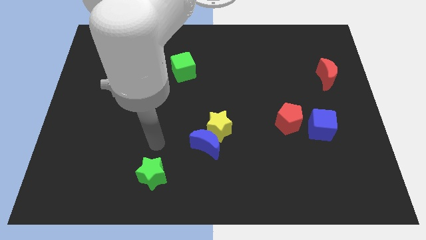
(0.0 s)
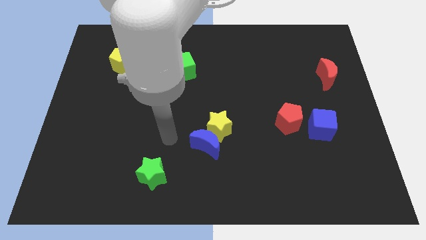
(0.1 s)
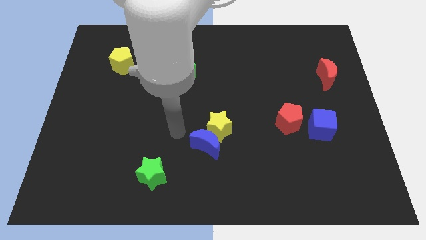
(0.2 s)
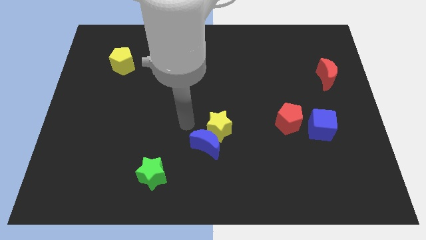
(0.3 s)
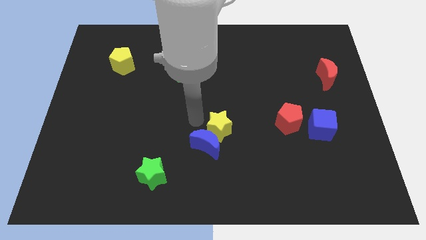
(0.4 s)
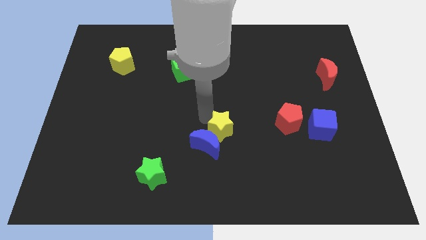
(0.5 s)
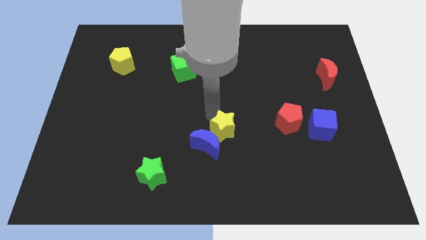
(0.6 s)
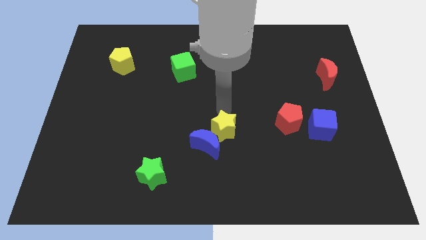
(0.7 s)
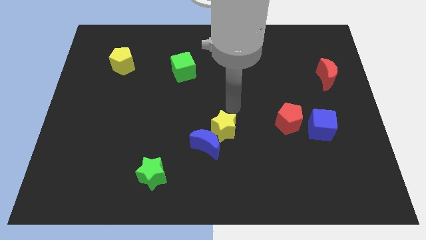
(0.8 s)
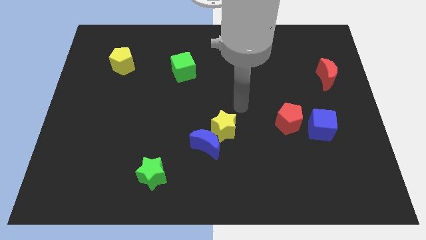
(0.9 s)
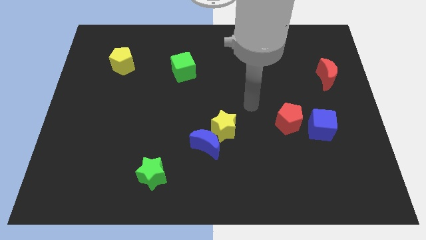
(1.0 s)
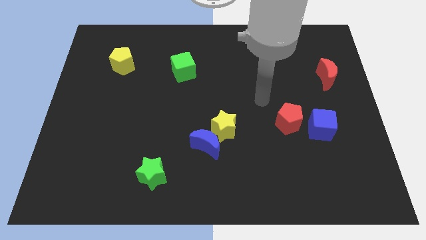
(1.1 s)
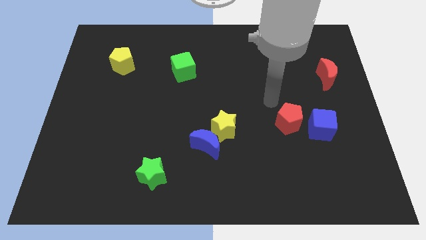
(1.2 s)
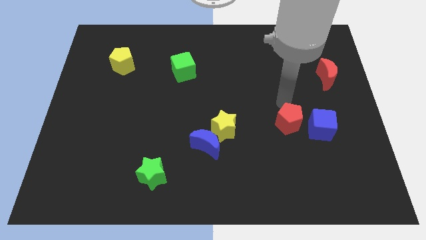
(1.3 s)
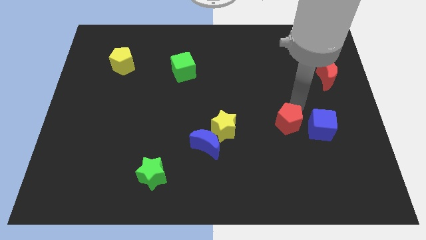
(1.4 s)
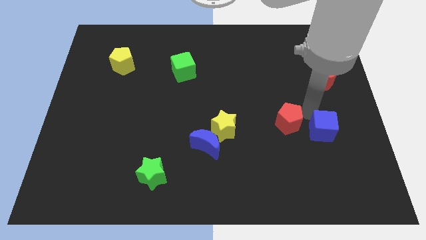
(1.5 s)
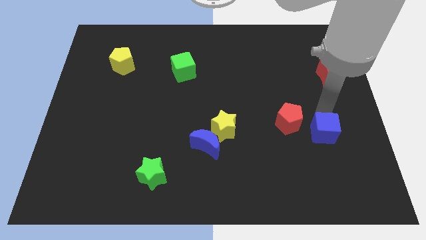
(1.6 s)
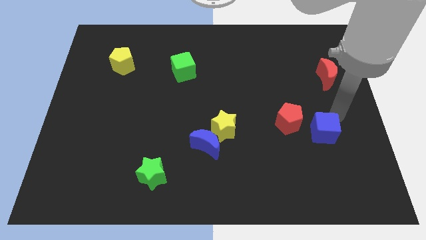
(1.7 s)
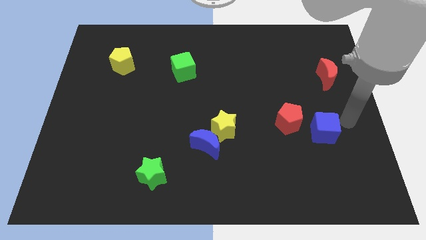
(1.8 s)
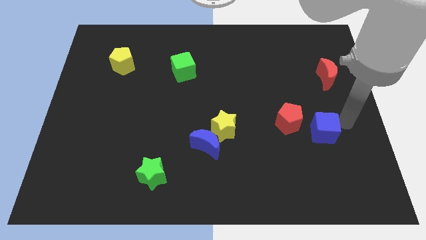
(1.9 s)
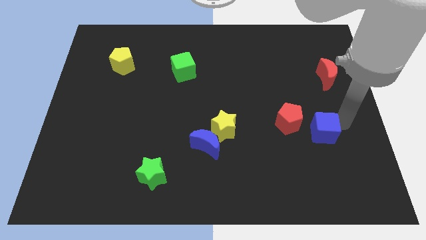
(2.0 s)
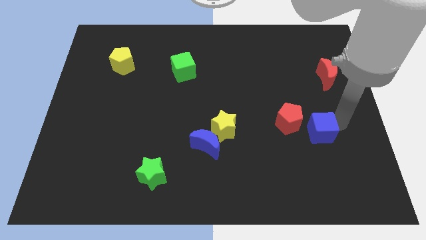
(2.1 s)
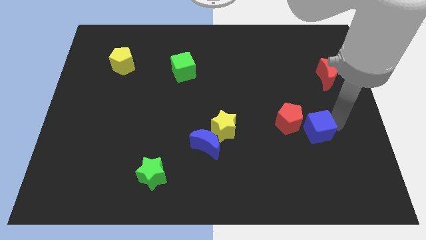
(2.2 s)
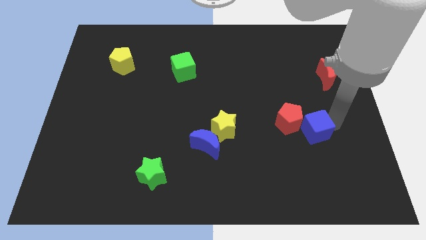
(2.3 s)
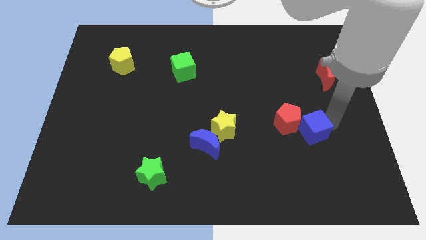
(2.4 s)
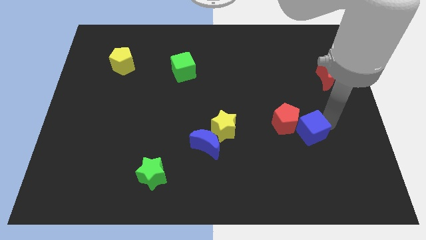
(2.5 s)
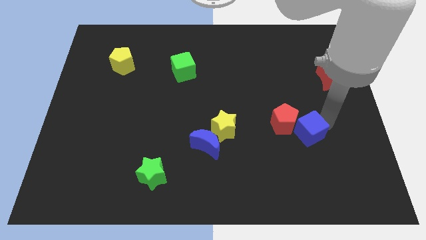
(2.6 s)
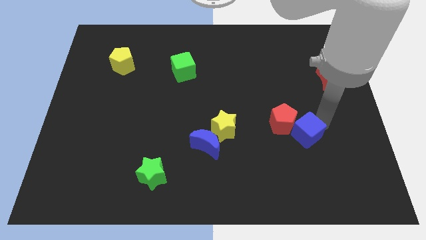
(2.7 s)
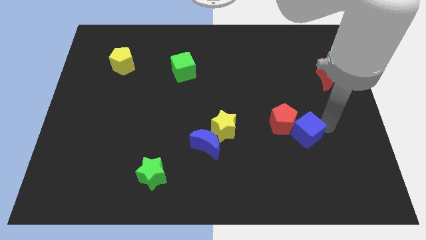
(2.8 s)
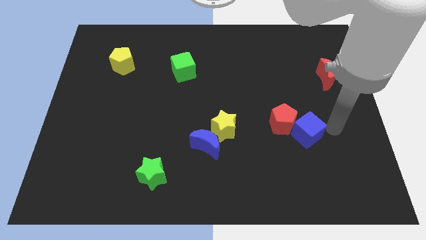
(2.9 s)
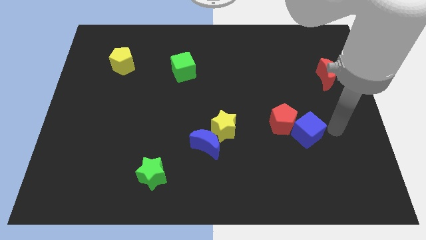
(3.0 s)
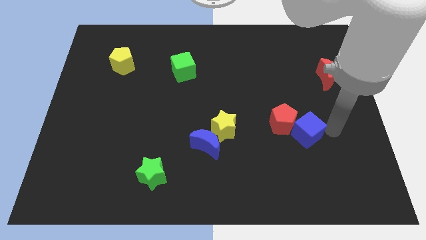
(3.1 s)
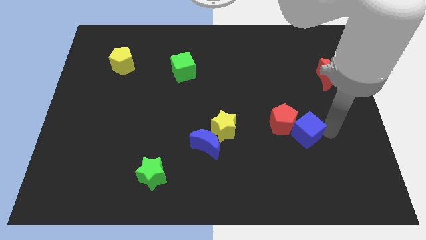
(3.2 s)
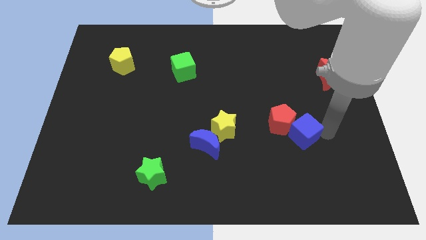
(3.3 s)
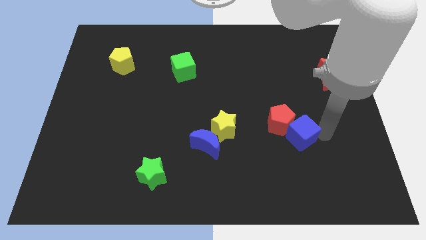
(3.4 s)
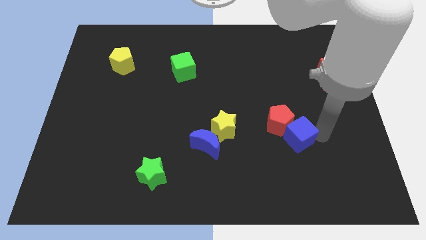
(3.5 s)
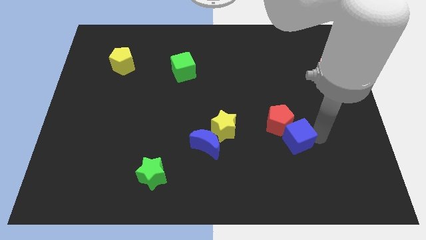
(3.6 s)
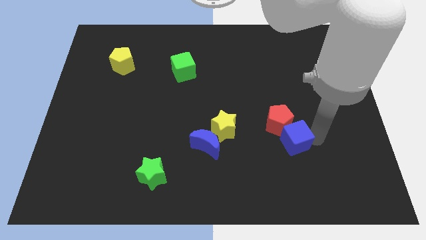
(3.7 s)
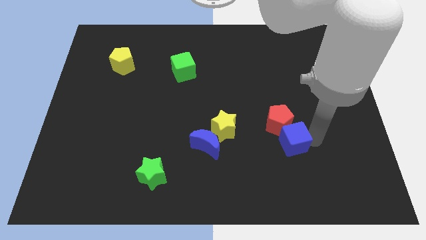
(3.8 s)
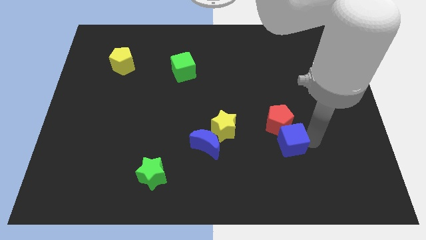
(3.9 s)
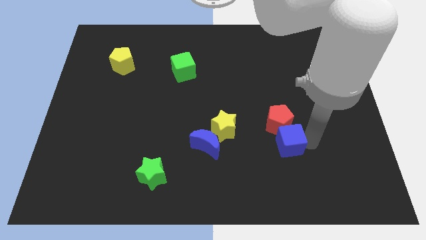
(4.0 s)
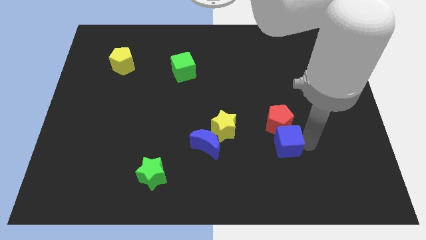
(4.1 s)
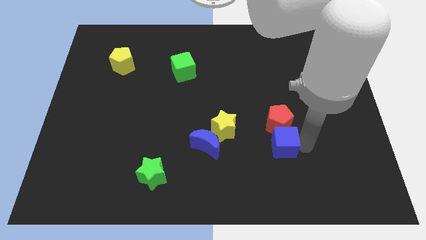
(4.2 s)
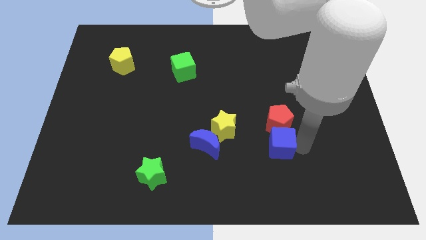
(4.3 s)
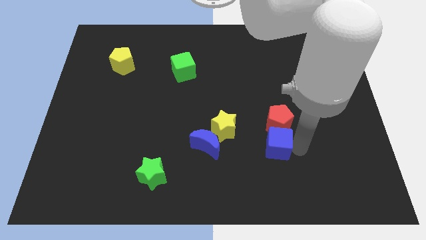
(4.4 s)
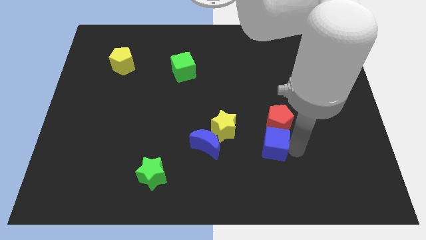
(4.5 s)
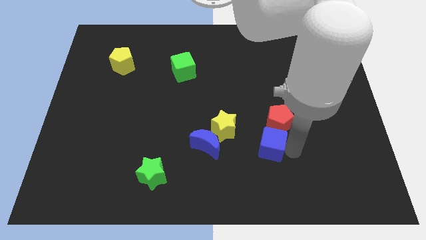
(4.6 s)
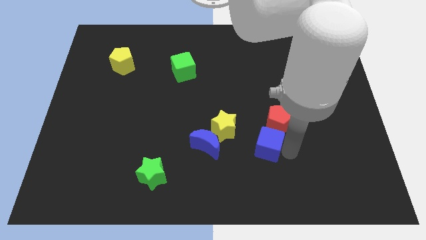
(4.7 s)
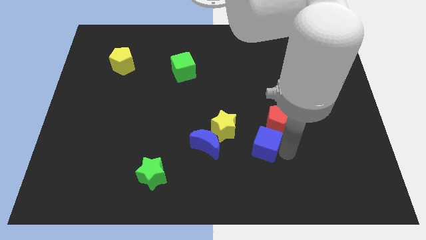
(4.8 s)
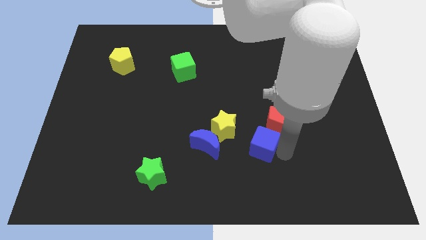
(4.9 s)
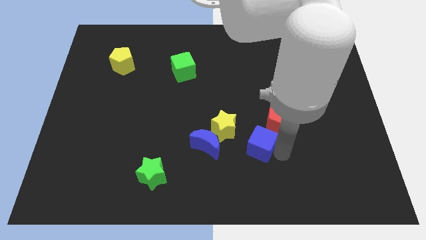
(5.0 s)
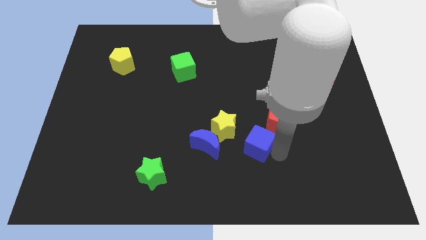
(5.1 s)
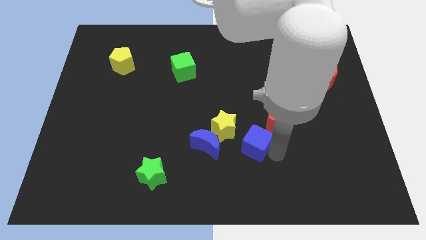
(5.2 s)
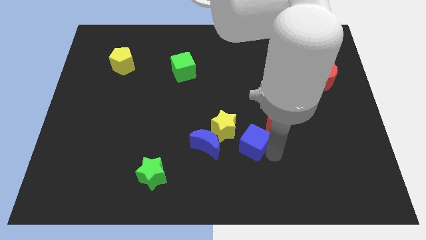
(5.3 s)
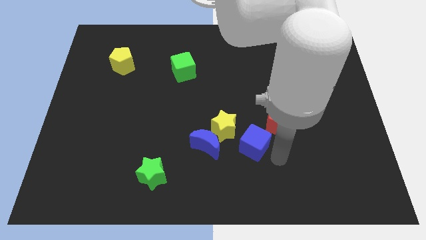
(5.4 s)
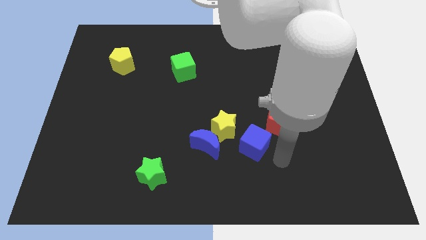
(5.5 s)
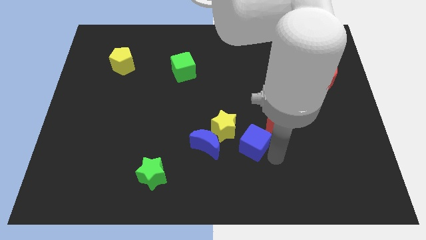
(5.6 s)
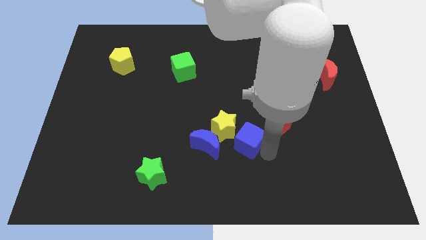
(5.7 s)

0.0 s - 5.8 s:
move the blue cube next to the yellow star

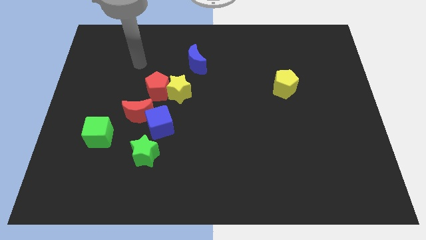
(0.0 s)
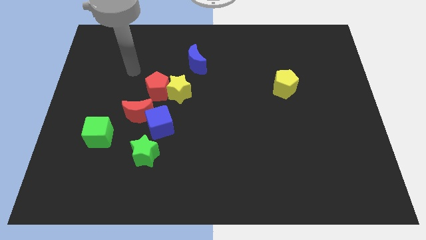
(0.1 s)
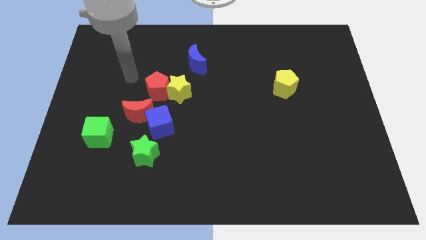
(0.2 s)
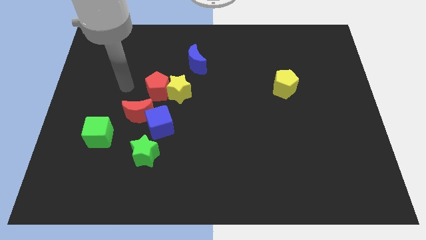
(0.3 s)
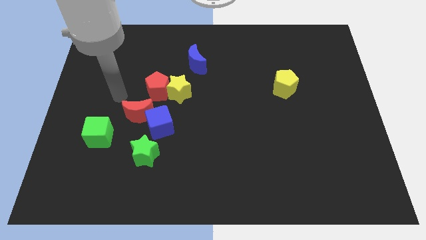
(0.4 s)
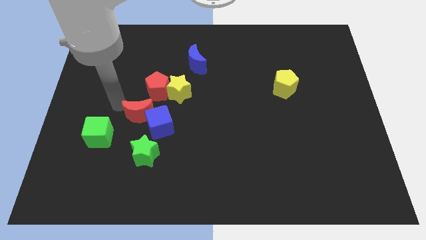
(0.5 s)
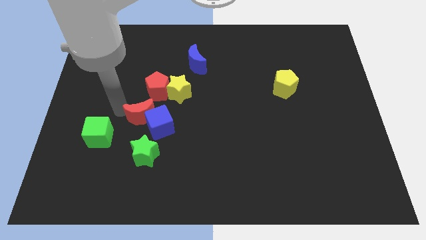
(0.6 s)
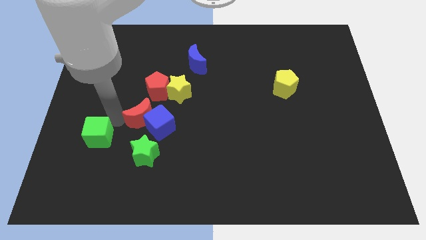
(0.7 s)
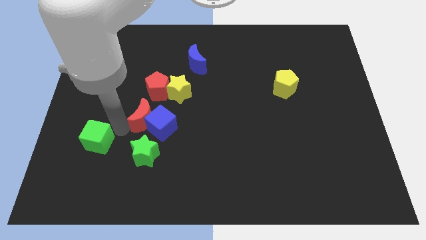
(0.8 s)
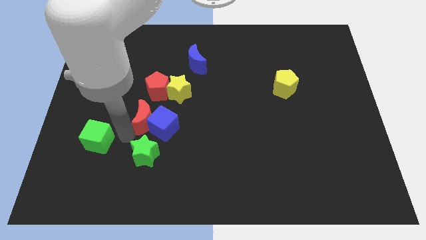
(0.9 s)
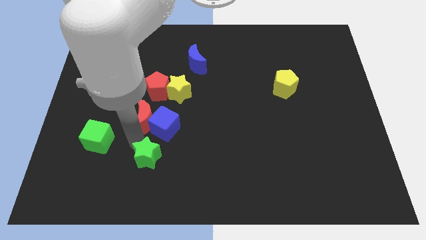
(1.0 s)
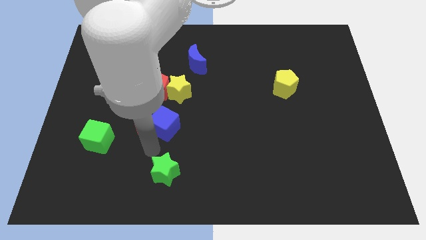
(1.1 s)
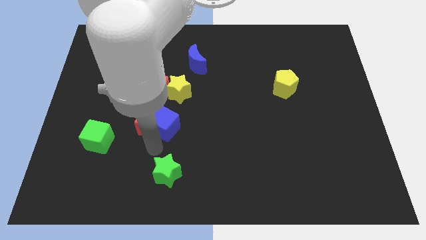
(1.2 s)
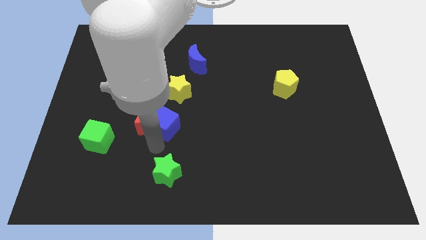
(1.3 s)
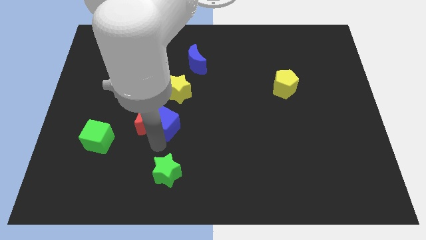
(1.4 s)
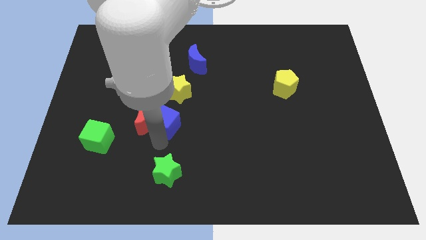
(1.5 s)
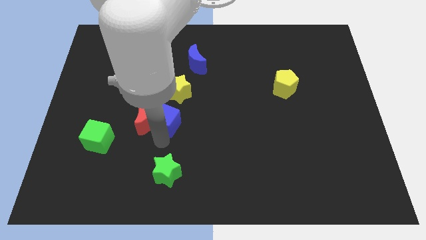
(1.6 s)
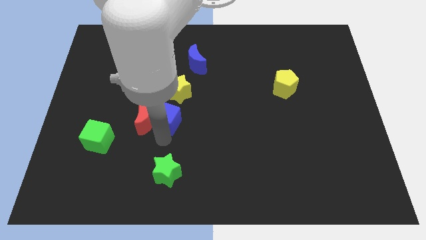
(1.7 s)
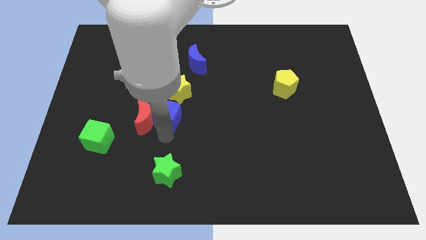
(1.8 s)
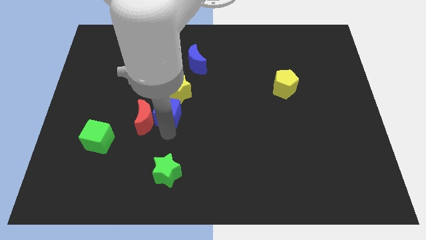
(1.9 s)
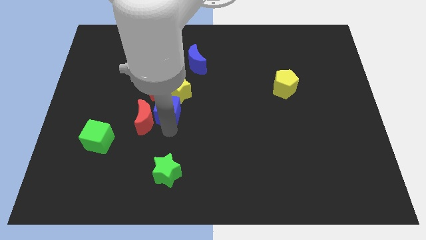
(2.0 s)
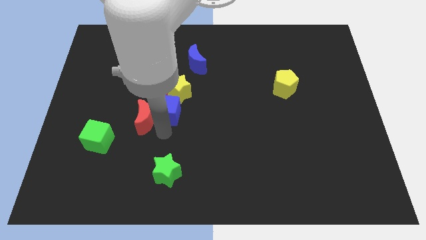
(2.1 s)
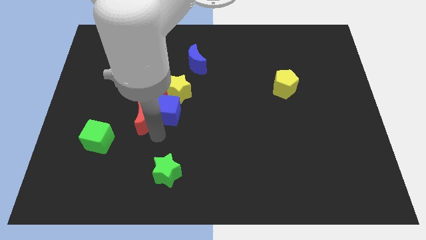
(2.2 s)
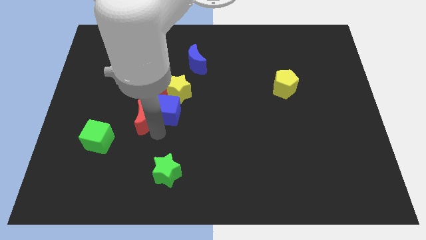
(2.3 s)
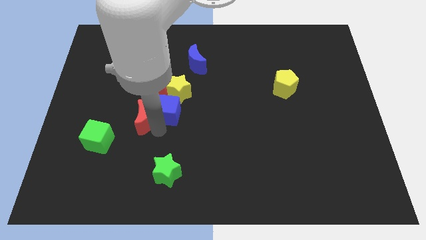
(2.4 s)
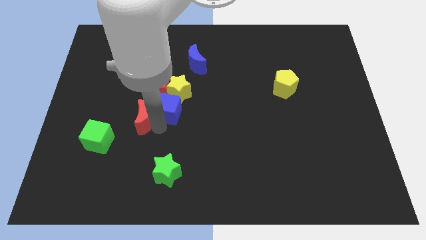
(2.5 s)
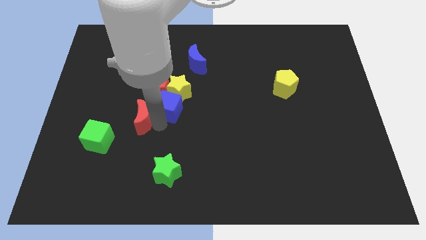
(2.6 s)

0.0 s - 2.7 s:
slide the blue cube towards the yellow star
